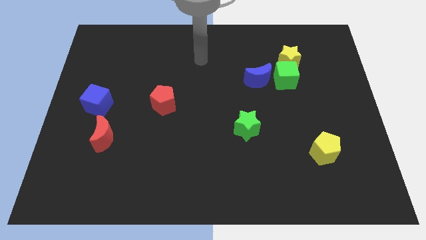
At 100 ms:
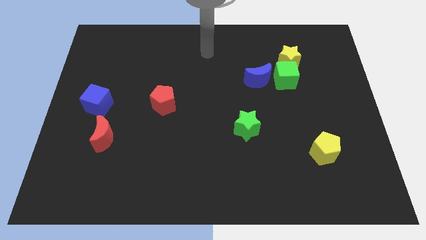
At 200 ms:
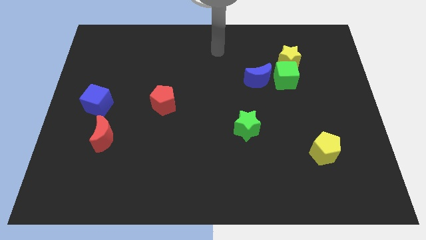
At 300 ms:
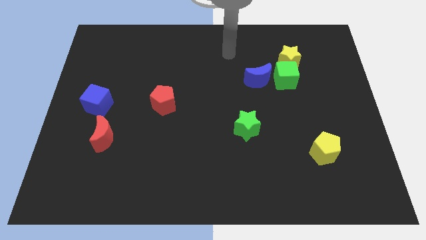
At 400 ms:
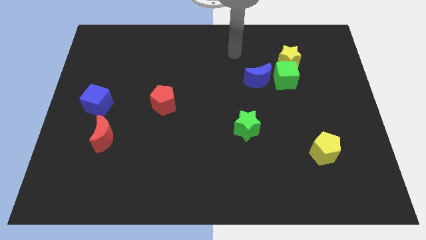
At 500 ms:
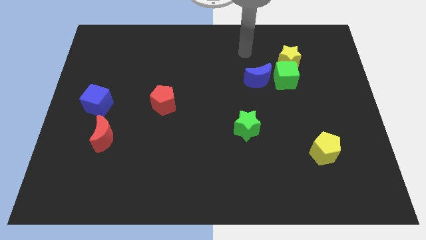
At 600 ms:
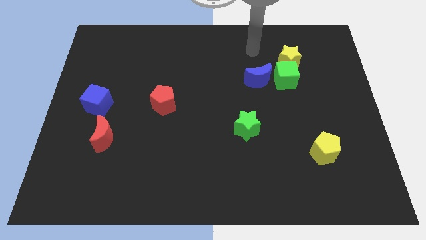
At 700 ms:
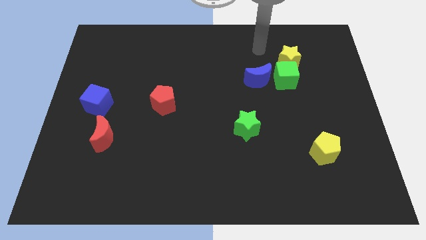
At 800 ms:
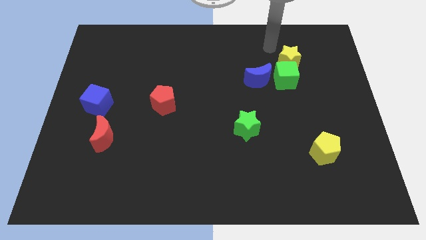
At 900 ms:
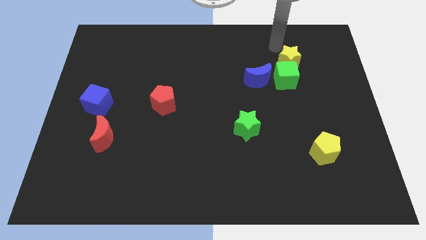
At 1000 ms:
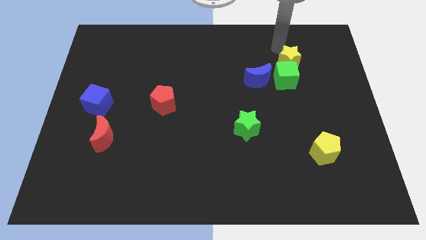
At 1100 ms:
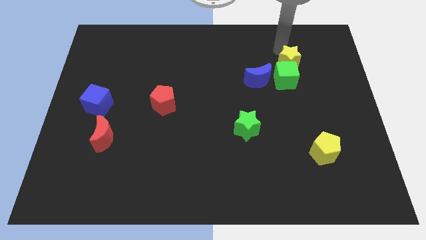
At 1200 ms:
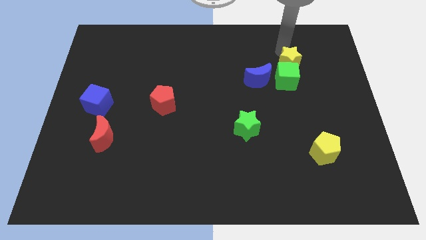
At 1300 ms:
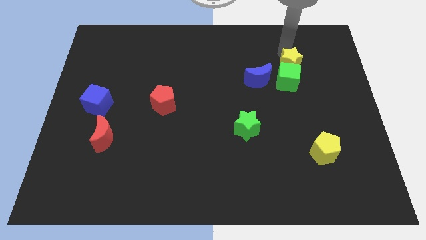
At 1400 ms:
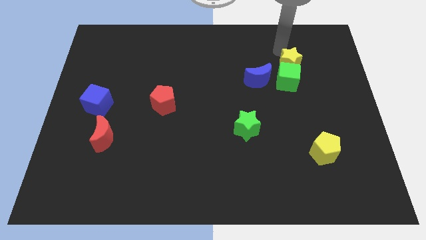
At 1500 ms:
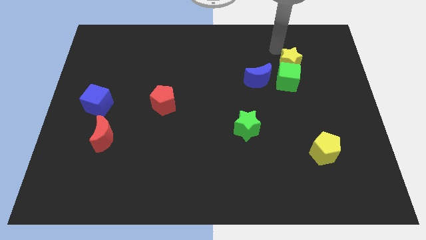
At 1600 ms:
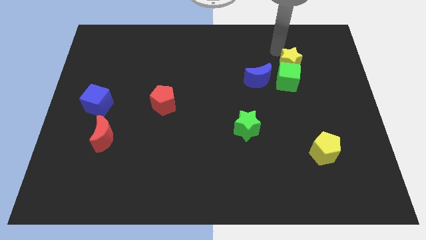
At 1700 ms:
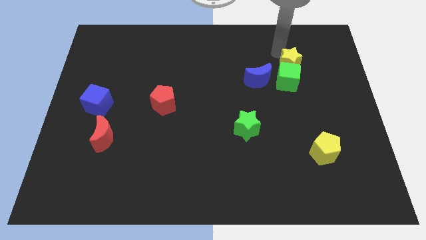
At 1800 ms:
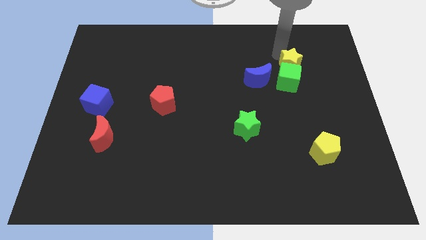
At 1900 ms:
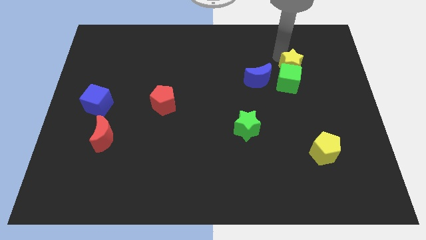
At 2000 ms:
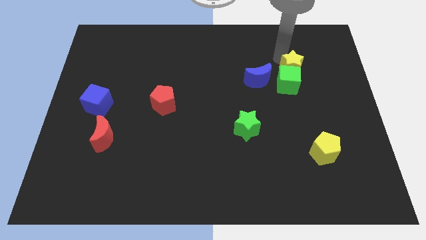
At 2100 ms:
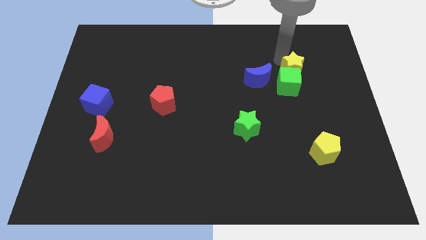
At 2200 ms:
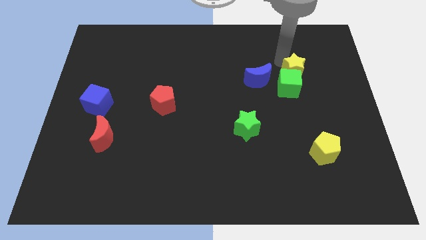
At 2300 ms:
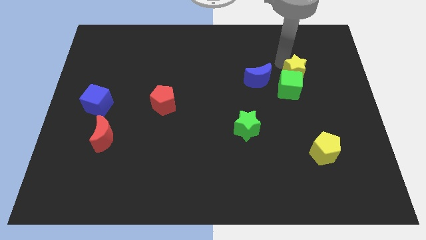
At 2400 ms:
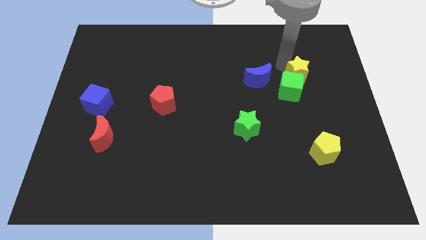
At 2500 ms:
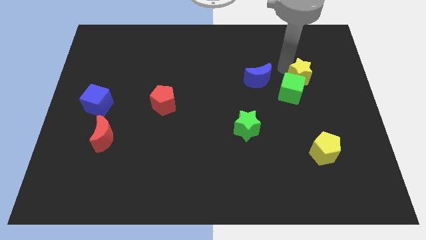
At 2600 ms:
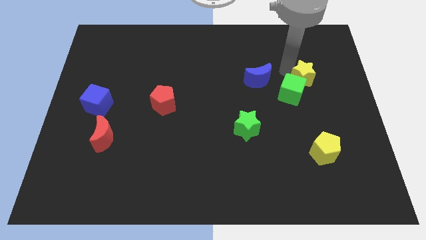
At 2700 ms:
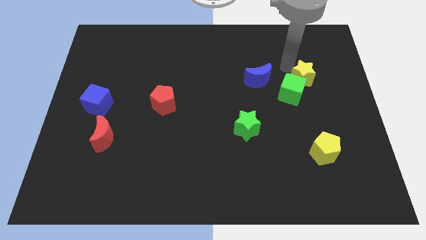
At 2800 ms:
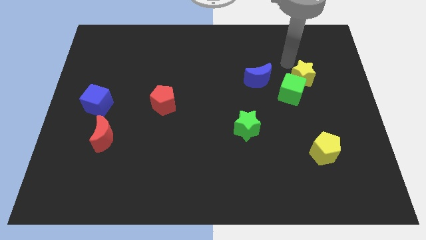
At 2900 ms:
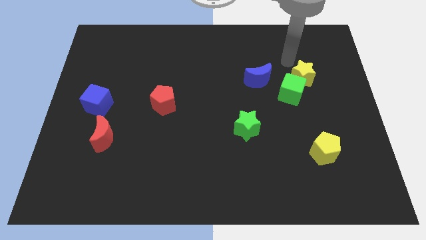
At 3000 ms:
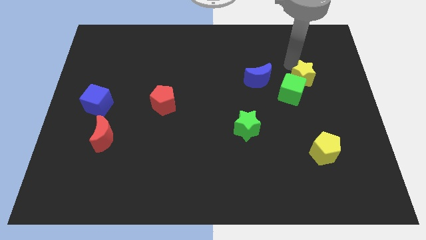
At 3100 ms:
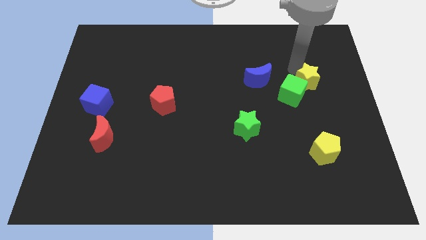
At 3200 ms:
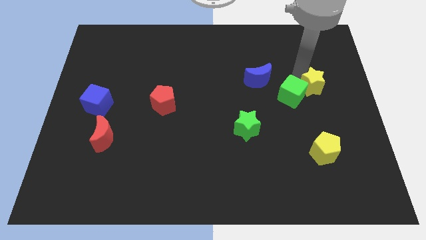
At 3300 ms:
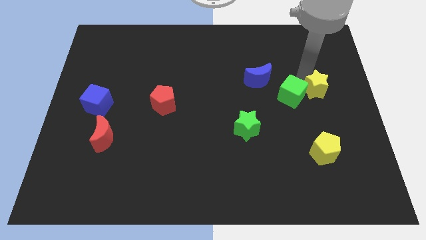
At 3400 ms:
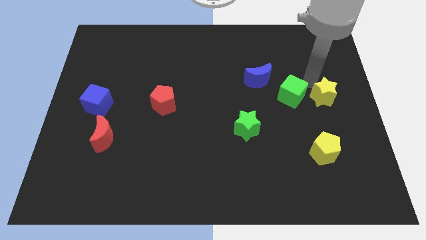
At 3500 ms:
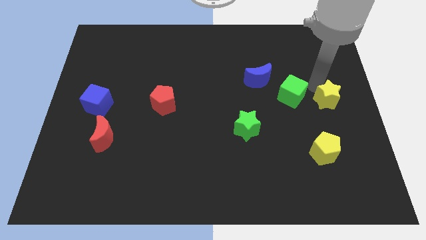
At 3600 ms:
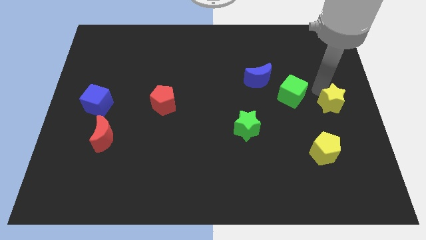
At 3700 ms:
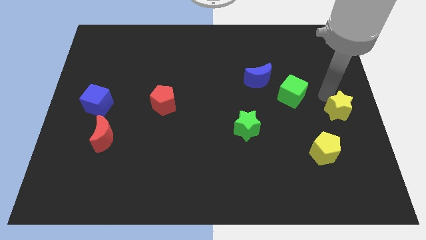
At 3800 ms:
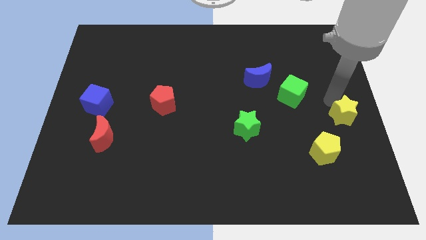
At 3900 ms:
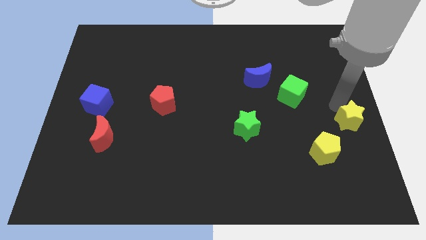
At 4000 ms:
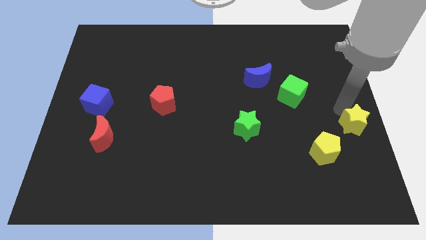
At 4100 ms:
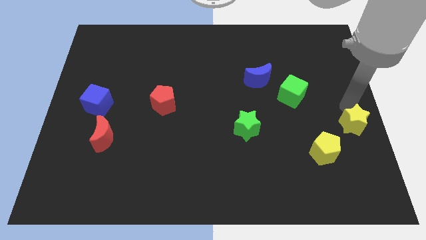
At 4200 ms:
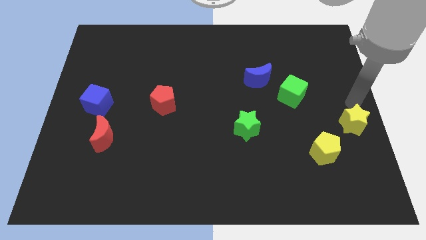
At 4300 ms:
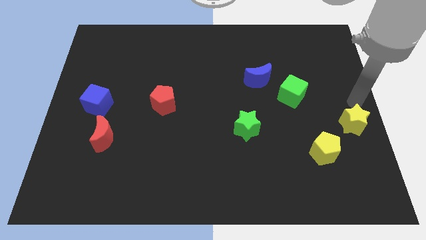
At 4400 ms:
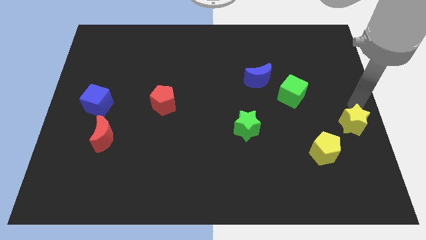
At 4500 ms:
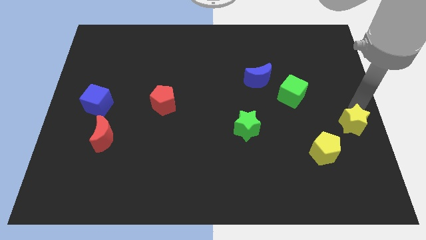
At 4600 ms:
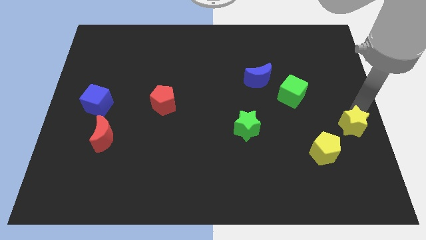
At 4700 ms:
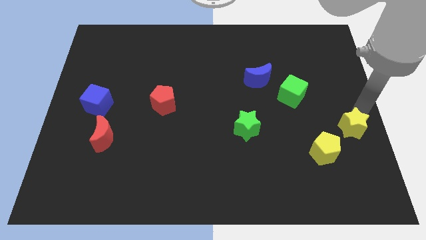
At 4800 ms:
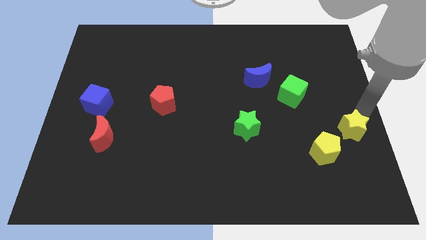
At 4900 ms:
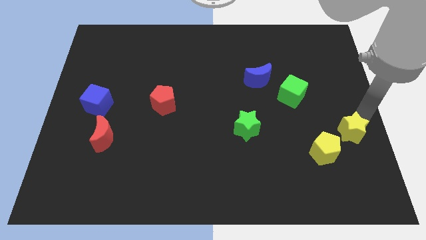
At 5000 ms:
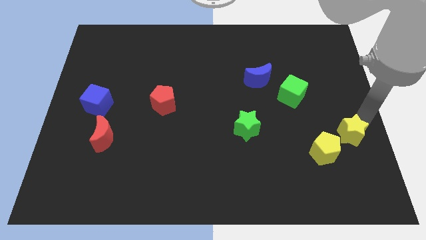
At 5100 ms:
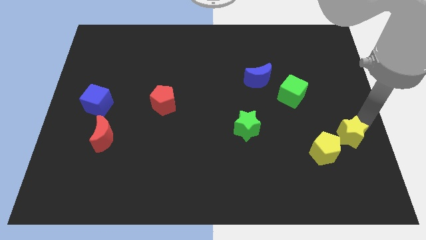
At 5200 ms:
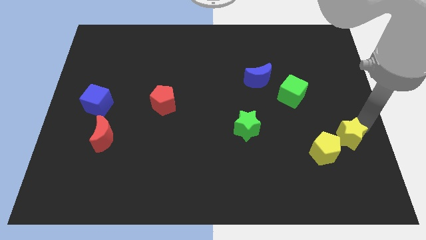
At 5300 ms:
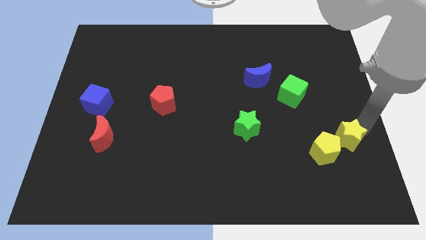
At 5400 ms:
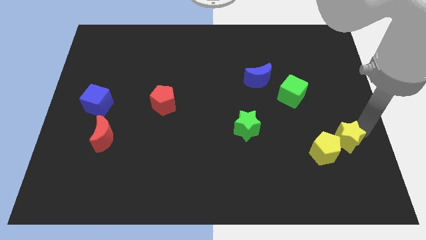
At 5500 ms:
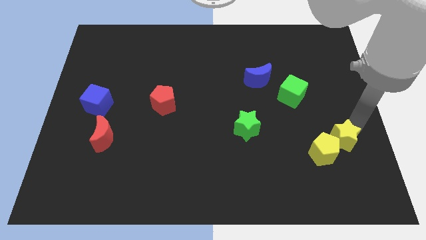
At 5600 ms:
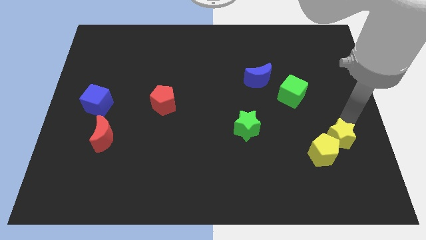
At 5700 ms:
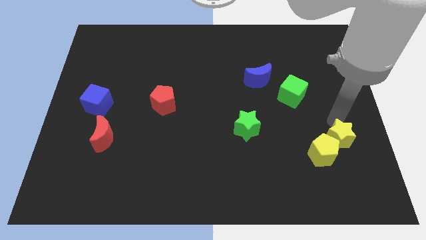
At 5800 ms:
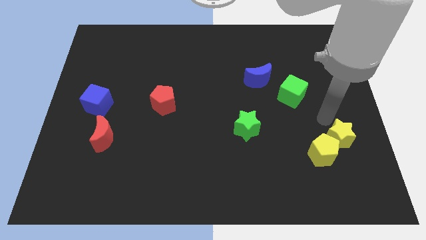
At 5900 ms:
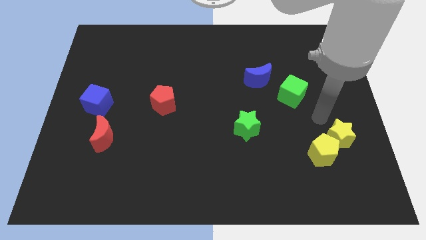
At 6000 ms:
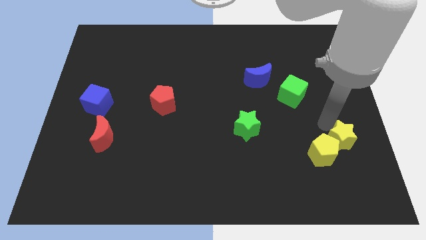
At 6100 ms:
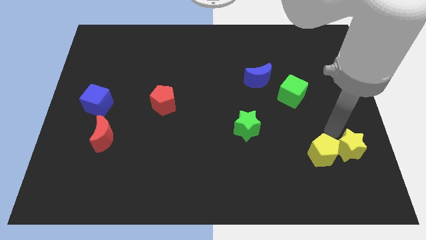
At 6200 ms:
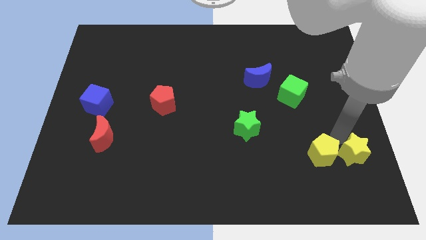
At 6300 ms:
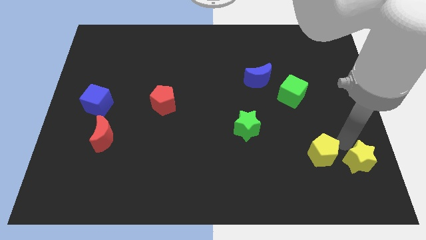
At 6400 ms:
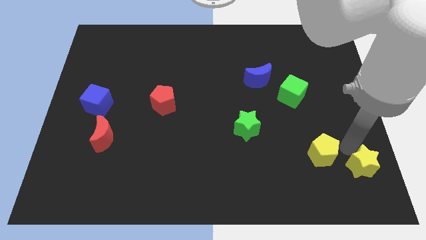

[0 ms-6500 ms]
push the yellow star to the lower right corner
